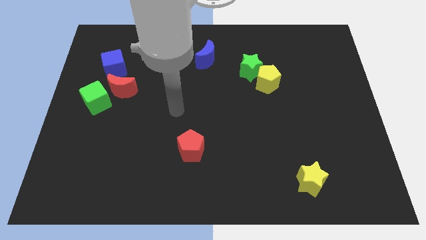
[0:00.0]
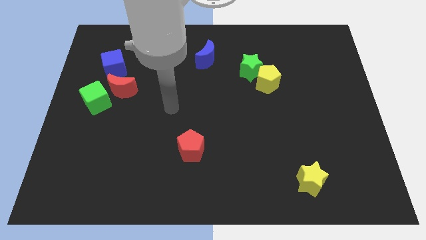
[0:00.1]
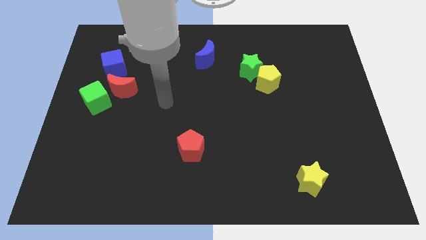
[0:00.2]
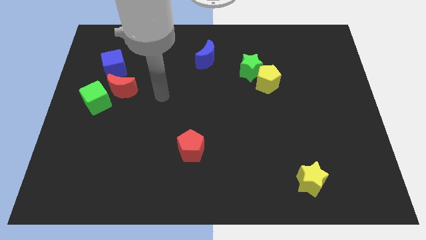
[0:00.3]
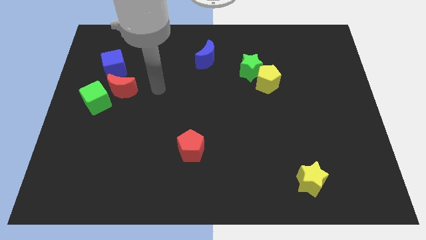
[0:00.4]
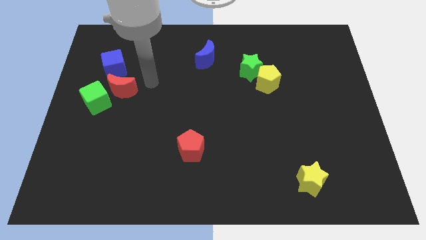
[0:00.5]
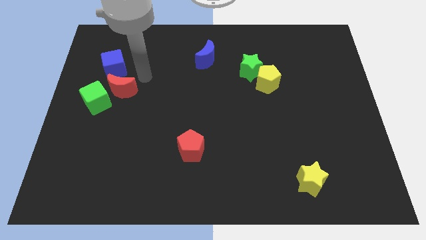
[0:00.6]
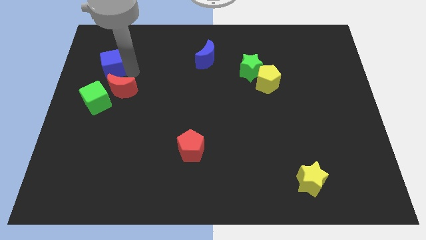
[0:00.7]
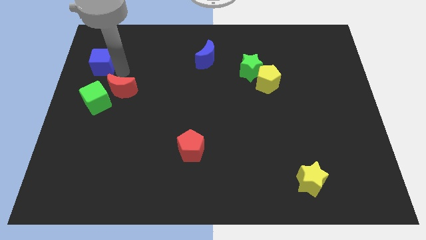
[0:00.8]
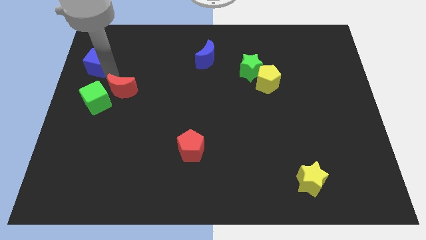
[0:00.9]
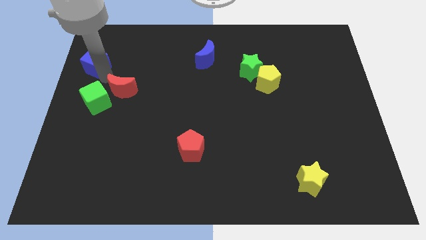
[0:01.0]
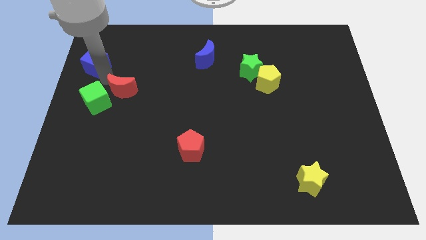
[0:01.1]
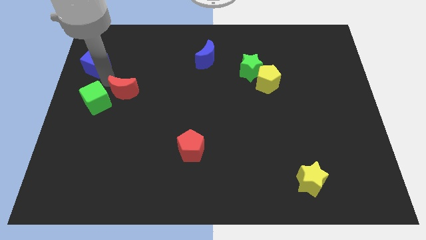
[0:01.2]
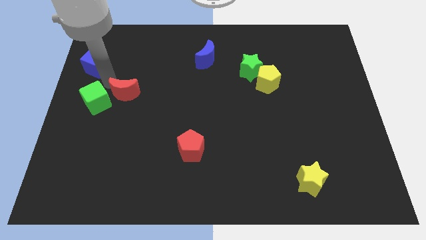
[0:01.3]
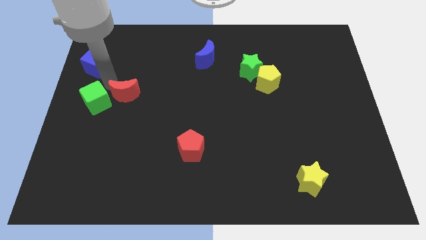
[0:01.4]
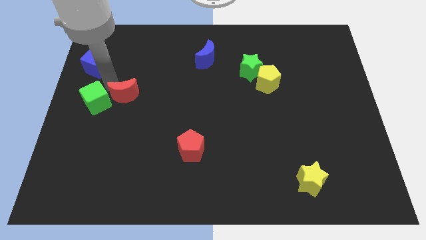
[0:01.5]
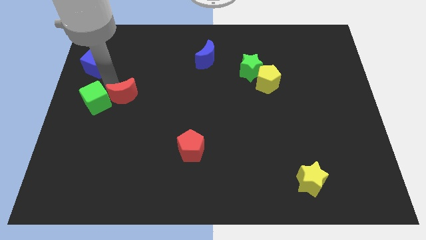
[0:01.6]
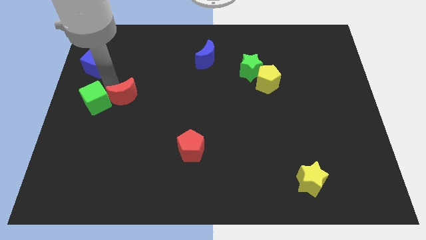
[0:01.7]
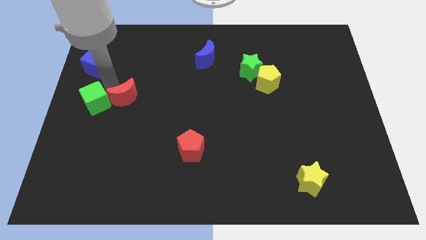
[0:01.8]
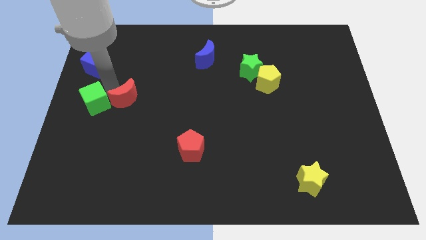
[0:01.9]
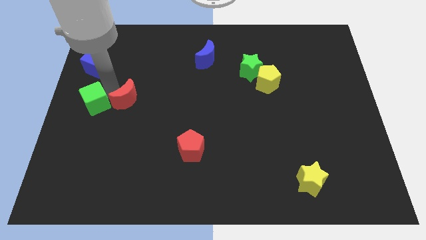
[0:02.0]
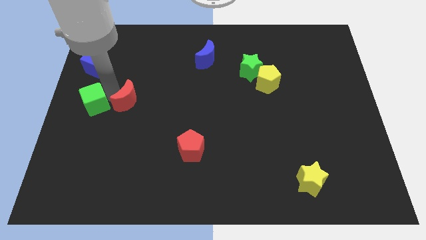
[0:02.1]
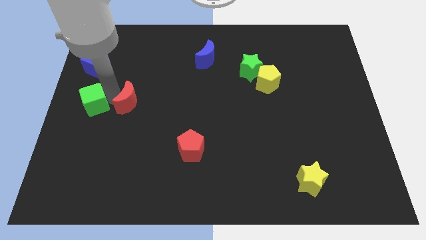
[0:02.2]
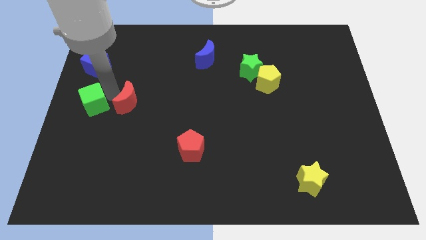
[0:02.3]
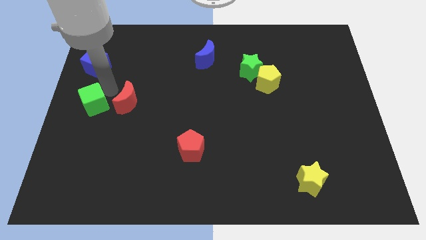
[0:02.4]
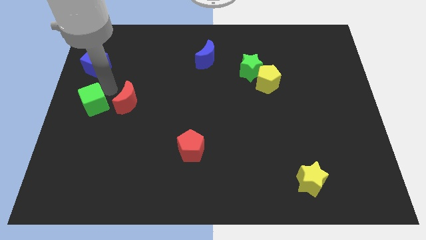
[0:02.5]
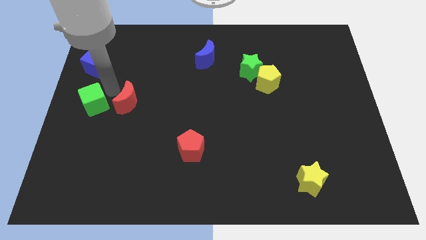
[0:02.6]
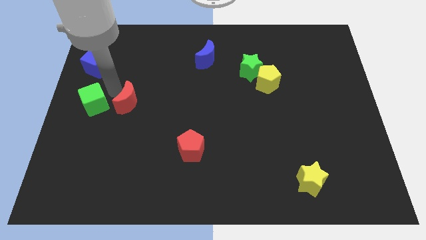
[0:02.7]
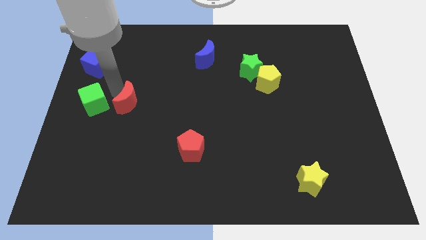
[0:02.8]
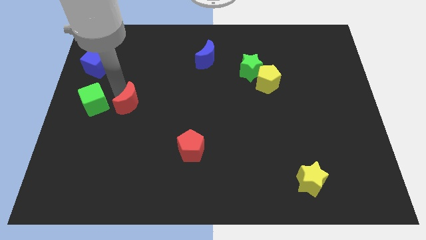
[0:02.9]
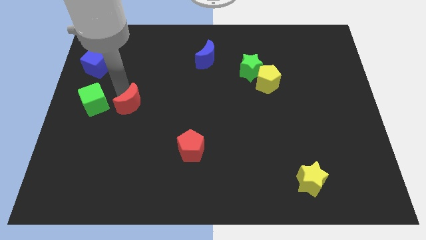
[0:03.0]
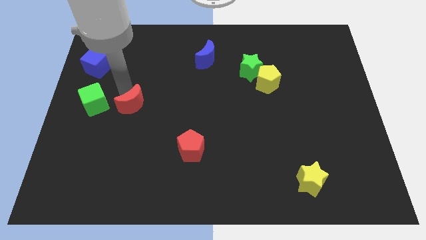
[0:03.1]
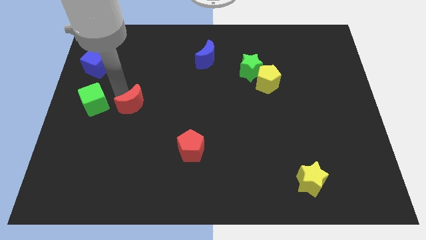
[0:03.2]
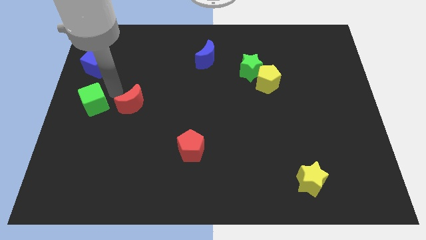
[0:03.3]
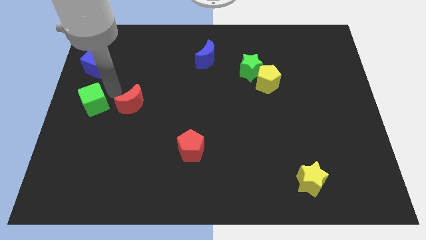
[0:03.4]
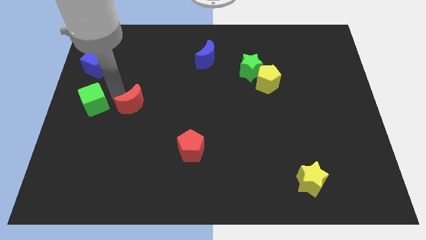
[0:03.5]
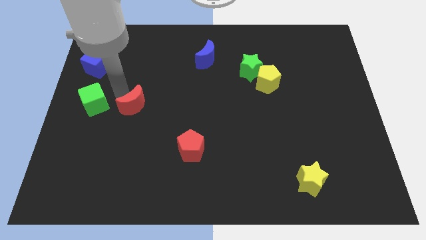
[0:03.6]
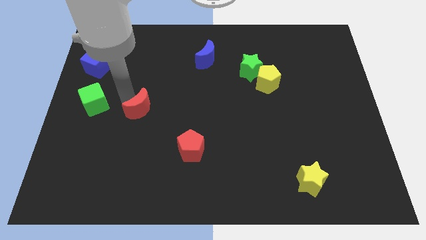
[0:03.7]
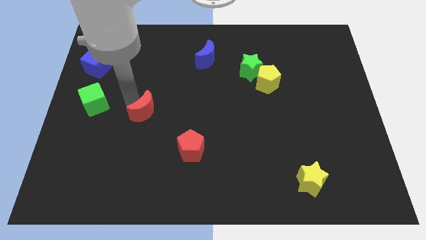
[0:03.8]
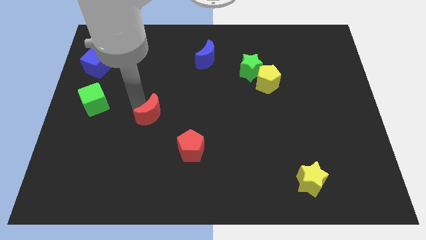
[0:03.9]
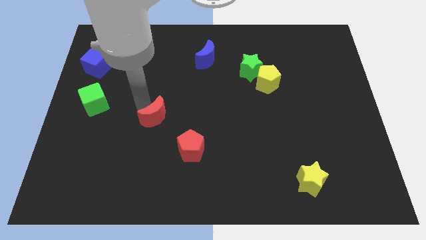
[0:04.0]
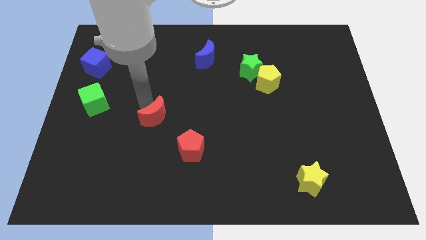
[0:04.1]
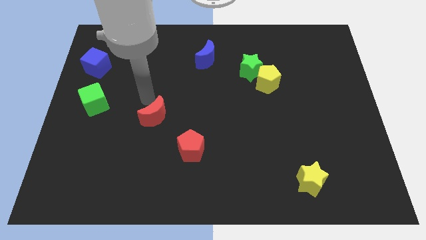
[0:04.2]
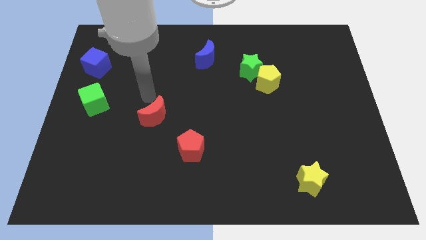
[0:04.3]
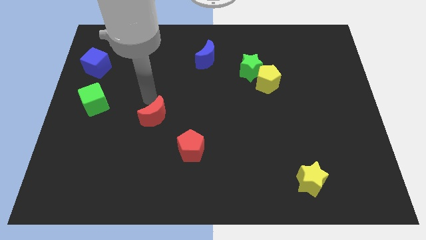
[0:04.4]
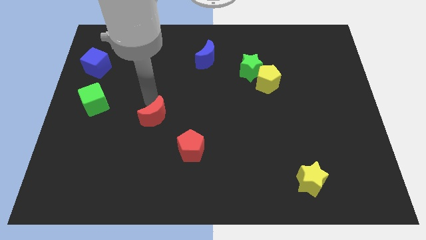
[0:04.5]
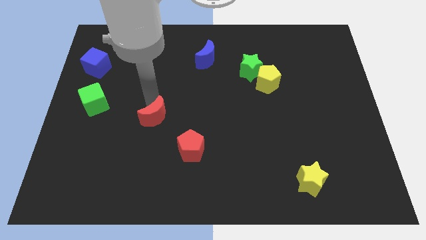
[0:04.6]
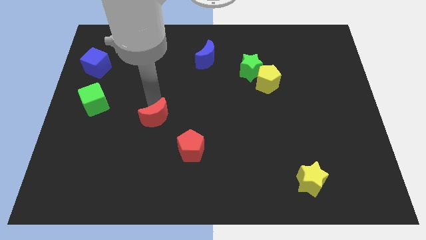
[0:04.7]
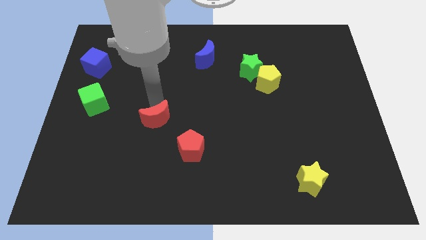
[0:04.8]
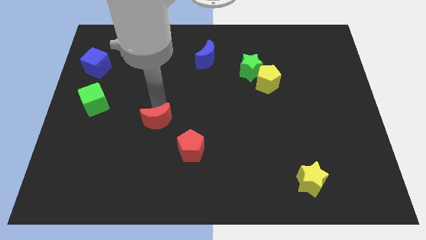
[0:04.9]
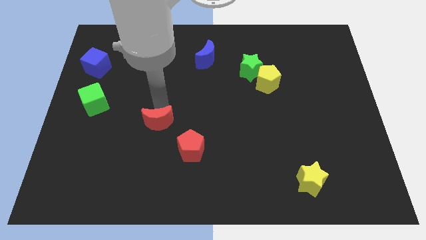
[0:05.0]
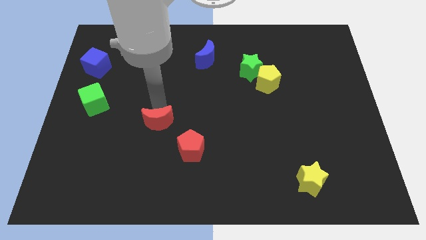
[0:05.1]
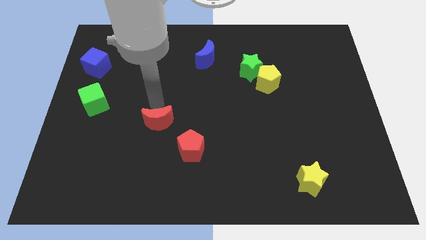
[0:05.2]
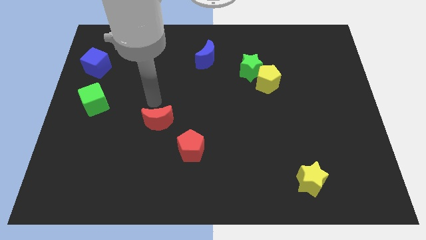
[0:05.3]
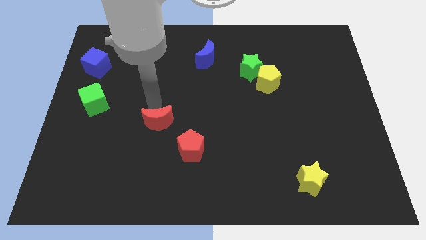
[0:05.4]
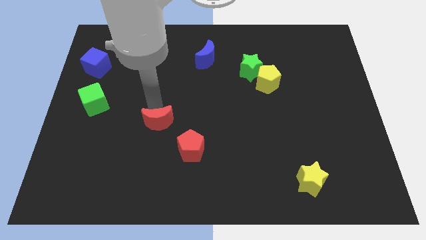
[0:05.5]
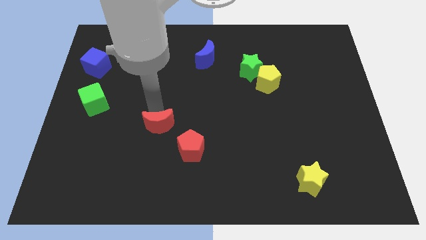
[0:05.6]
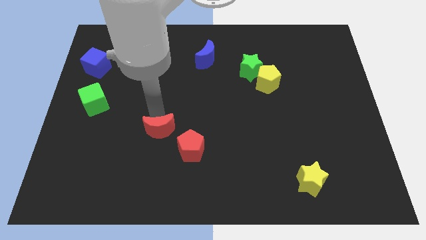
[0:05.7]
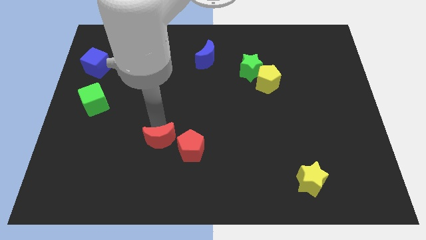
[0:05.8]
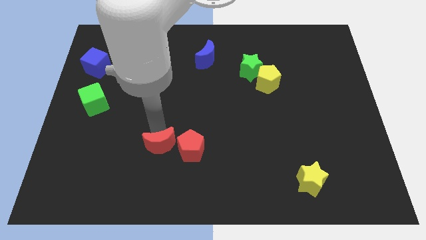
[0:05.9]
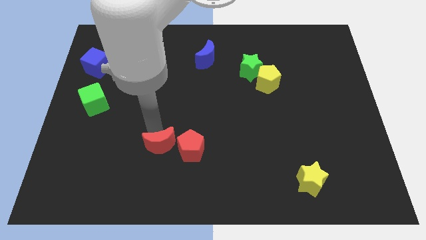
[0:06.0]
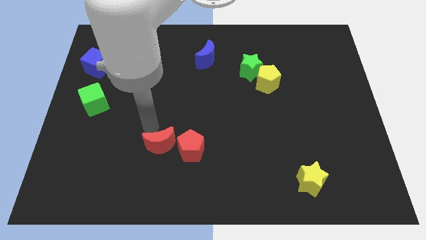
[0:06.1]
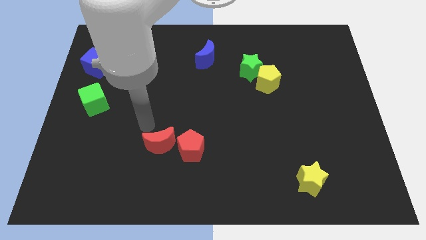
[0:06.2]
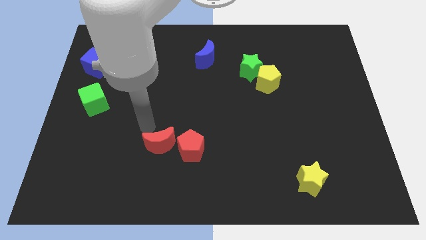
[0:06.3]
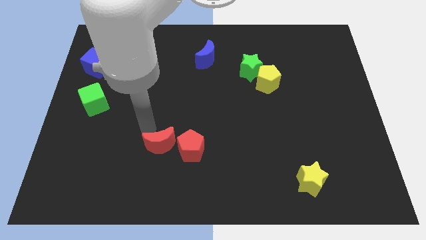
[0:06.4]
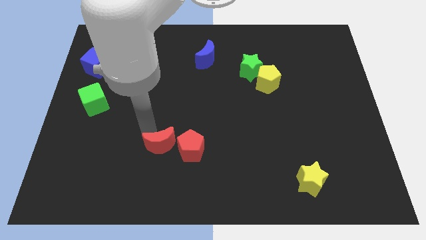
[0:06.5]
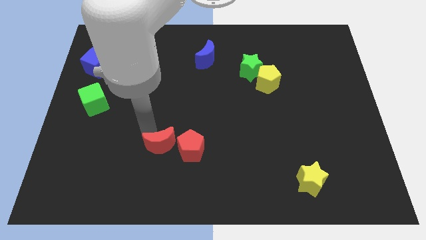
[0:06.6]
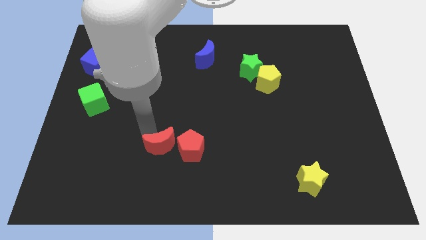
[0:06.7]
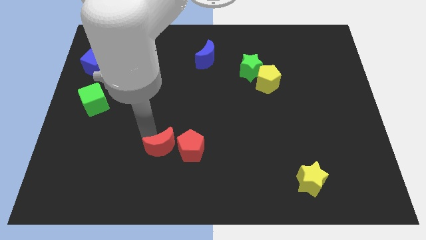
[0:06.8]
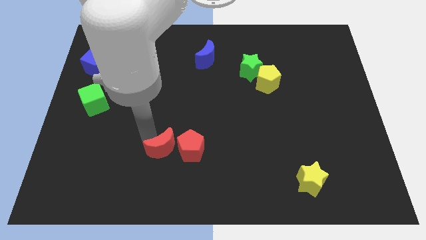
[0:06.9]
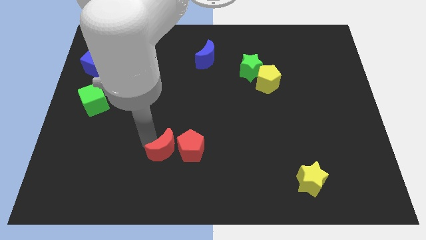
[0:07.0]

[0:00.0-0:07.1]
move the red moon downwards and right

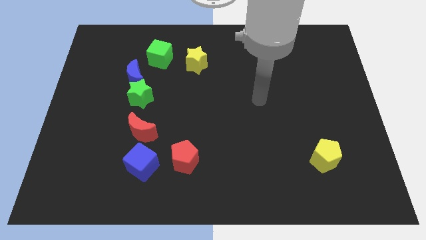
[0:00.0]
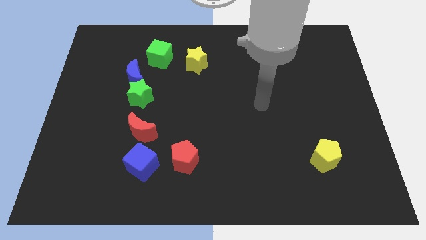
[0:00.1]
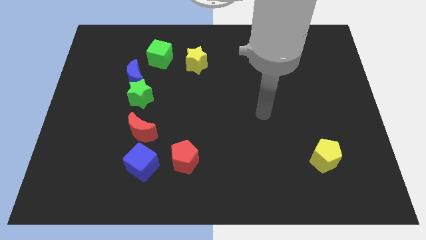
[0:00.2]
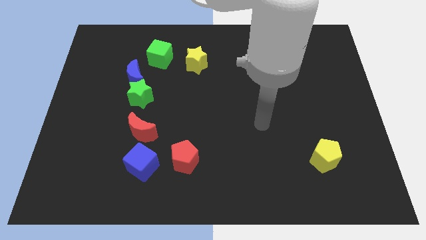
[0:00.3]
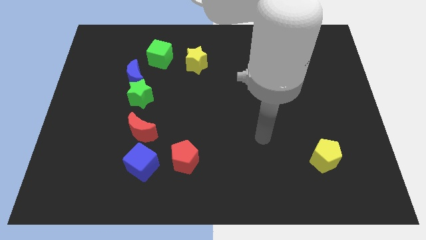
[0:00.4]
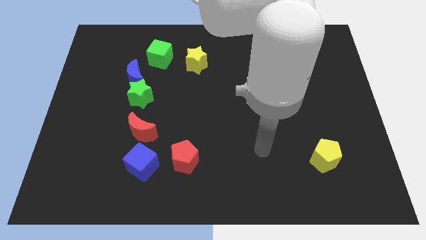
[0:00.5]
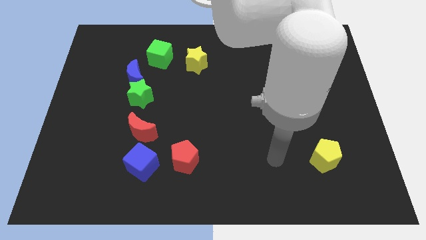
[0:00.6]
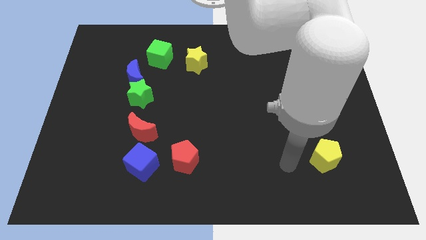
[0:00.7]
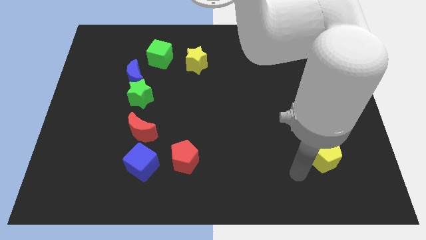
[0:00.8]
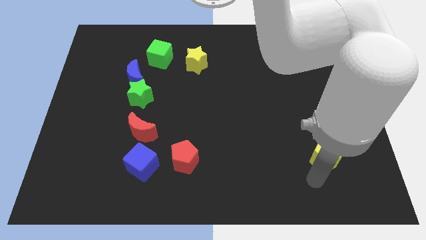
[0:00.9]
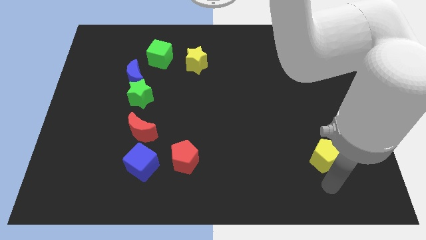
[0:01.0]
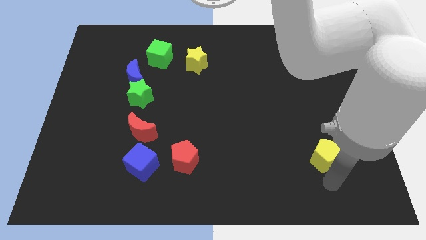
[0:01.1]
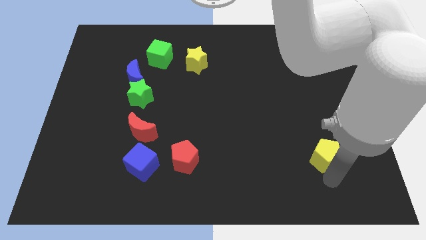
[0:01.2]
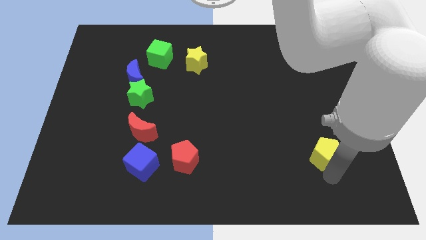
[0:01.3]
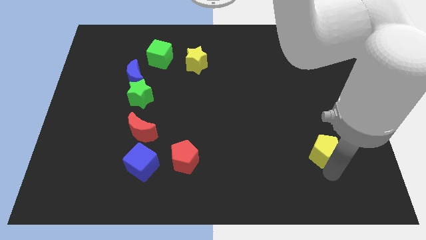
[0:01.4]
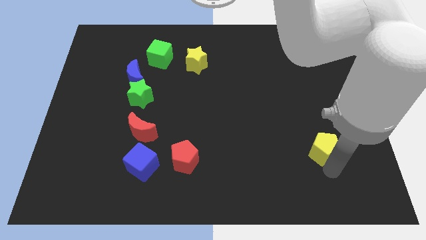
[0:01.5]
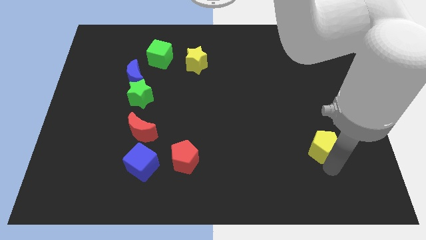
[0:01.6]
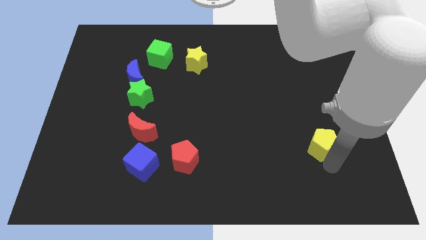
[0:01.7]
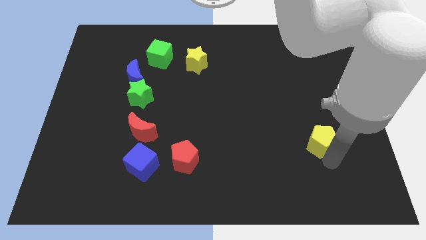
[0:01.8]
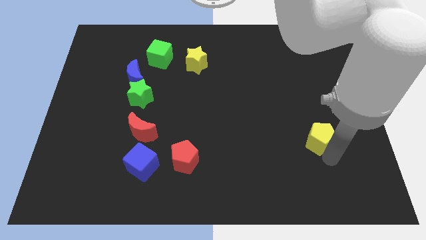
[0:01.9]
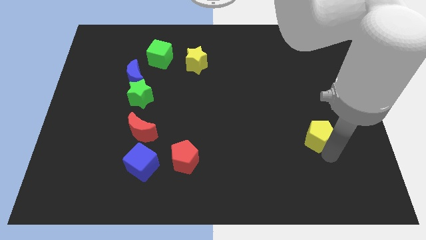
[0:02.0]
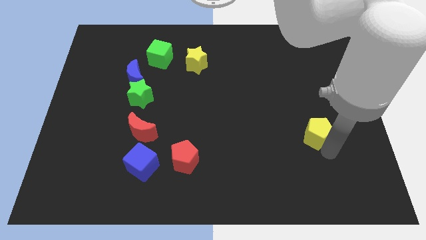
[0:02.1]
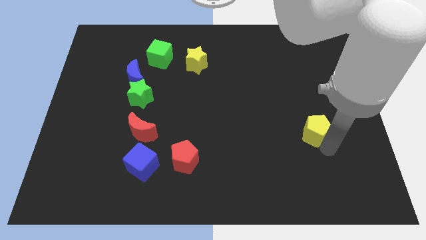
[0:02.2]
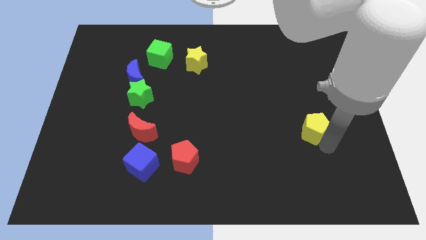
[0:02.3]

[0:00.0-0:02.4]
move the yellow pentagon up a little
